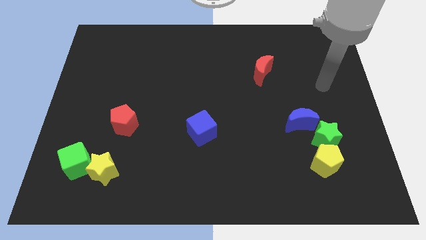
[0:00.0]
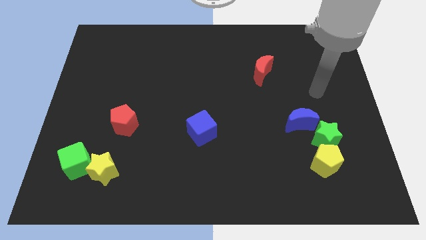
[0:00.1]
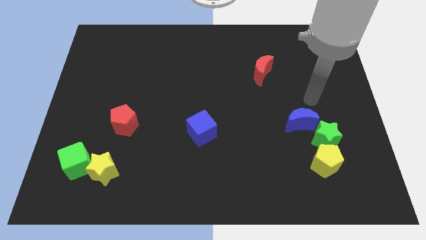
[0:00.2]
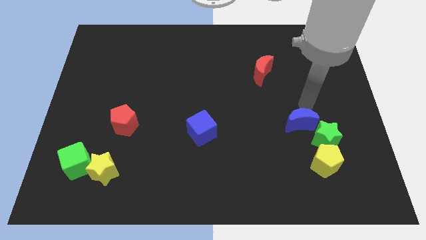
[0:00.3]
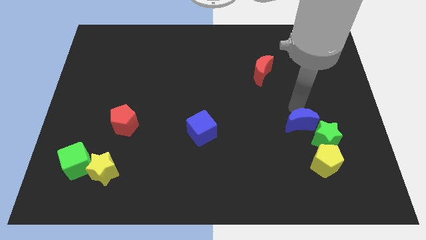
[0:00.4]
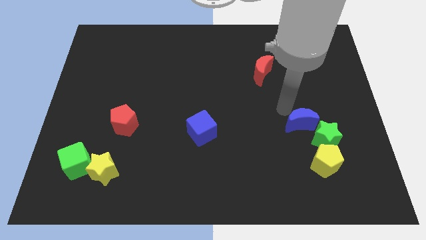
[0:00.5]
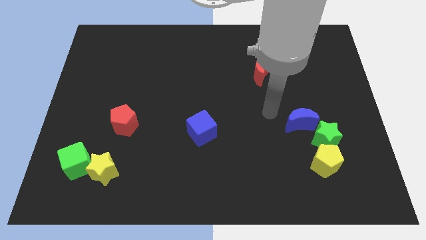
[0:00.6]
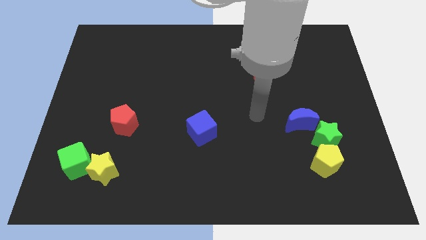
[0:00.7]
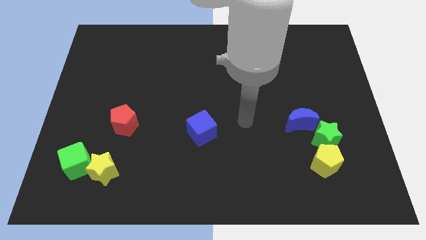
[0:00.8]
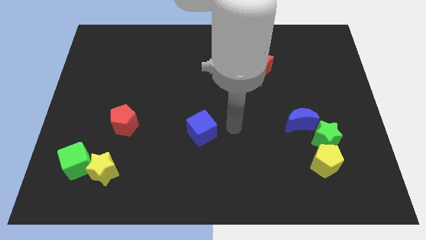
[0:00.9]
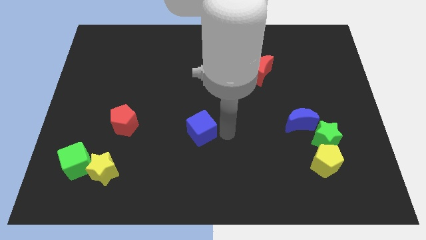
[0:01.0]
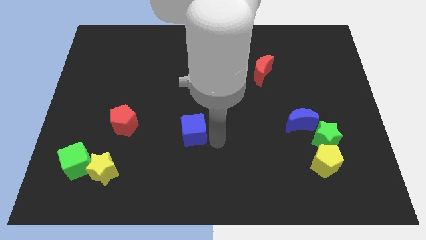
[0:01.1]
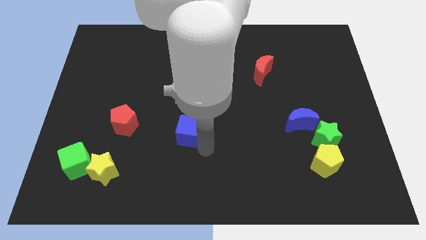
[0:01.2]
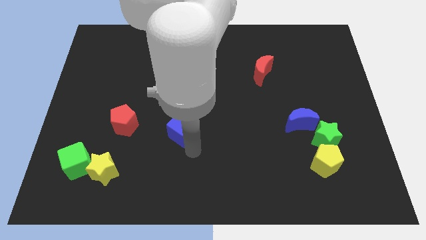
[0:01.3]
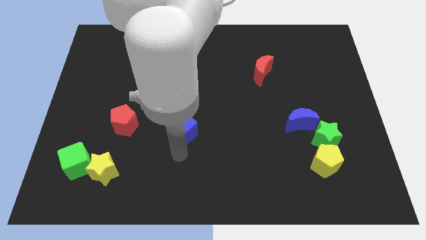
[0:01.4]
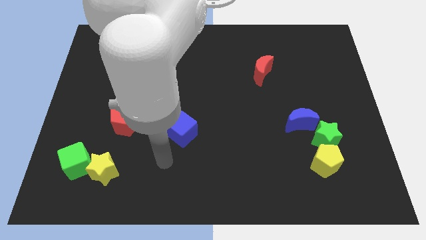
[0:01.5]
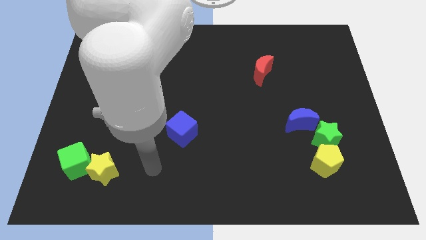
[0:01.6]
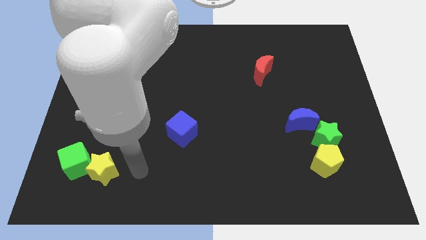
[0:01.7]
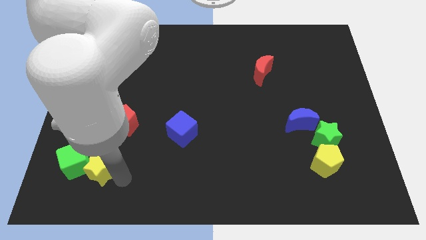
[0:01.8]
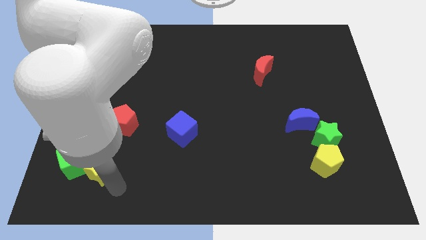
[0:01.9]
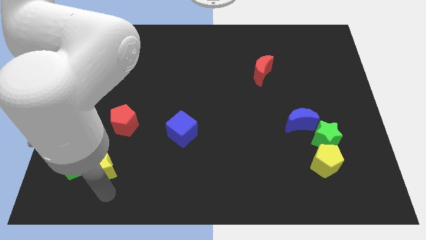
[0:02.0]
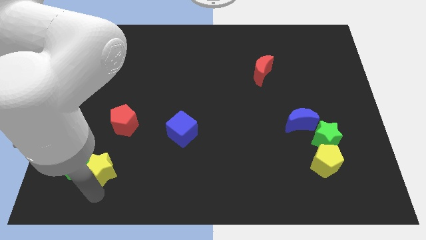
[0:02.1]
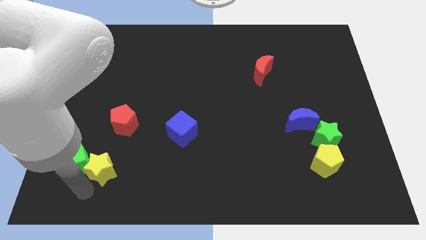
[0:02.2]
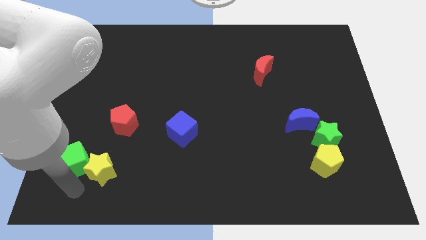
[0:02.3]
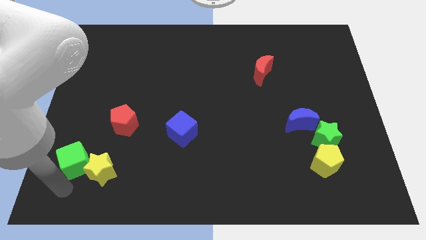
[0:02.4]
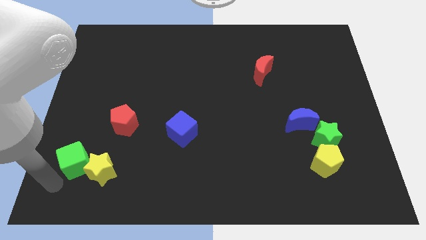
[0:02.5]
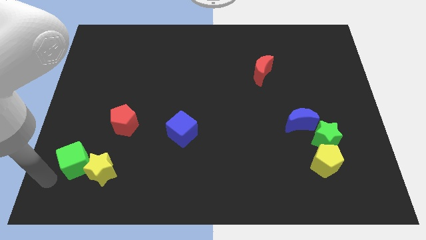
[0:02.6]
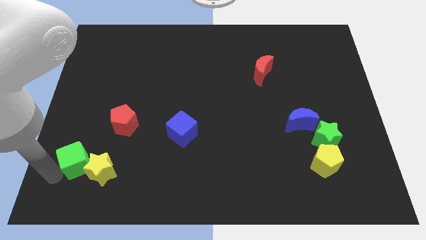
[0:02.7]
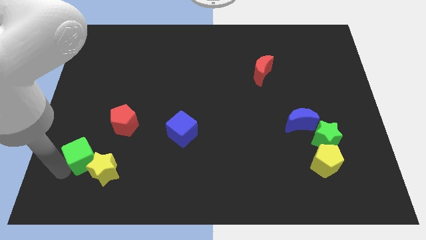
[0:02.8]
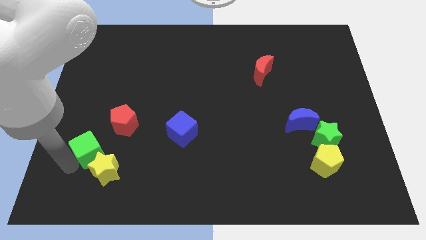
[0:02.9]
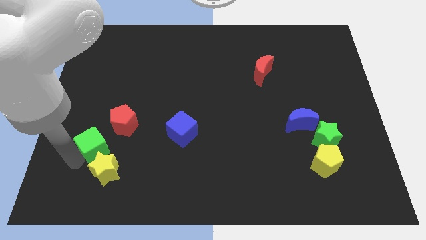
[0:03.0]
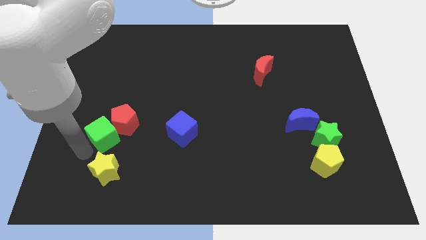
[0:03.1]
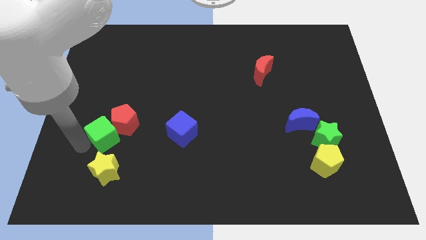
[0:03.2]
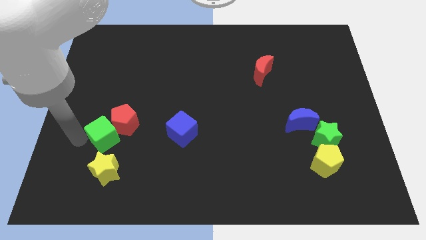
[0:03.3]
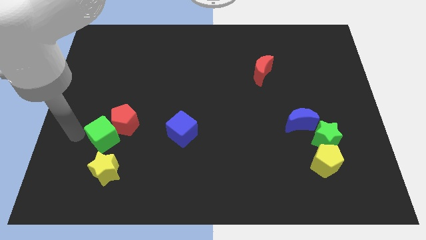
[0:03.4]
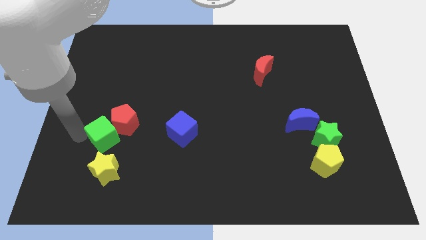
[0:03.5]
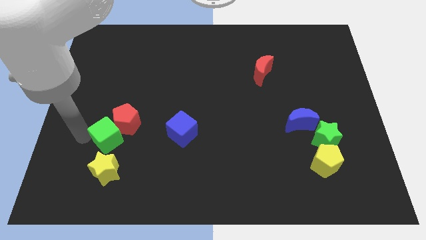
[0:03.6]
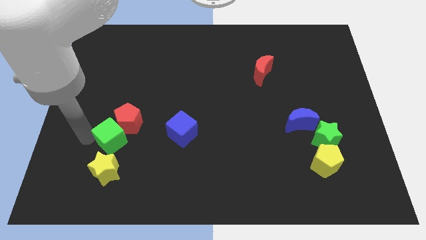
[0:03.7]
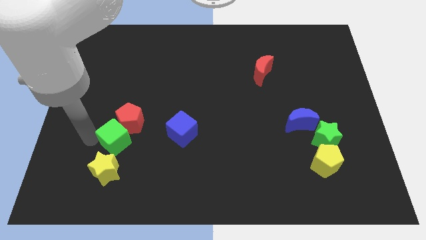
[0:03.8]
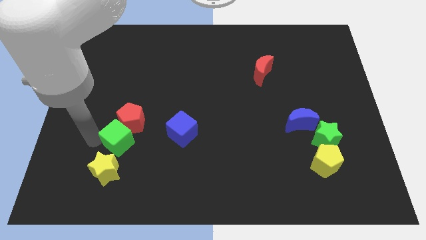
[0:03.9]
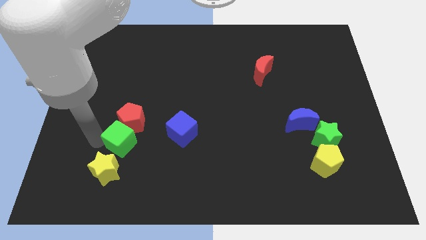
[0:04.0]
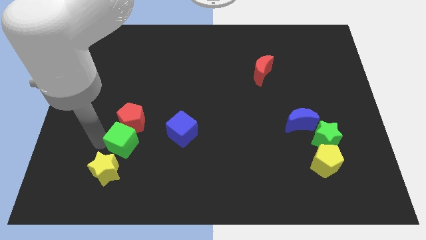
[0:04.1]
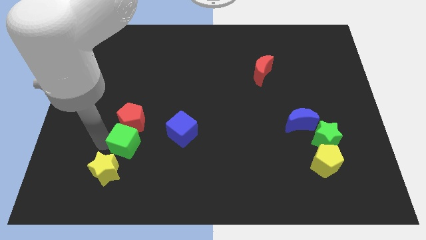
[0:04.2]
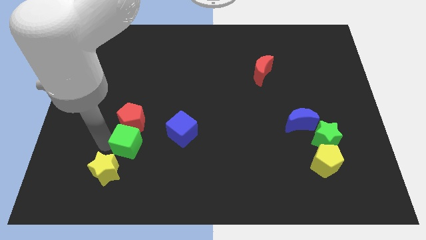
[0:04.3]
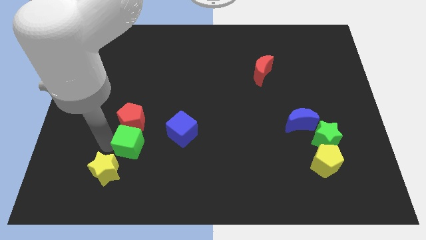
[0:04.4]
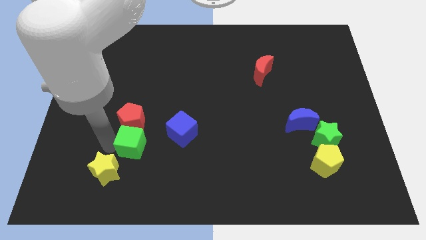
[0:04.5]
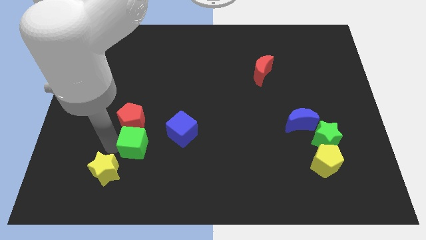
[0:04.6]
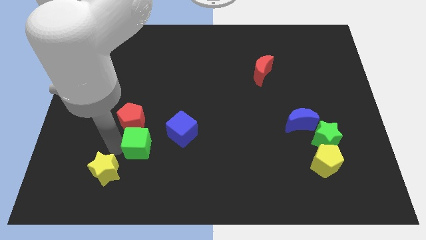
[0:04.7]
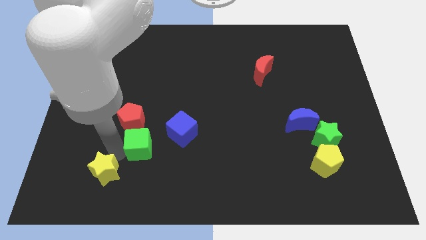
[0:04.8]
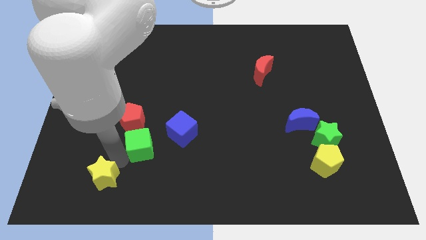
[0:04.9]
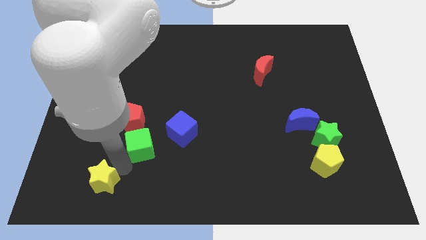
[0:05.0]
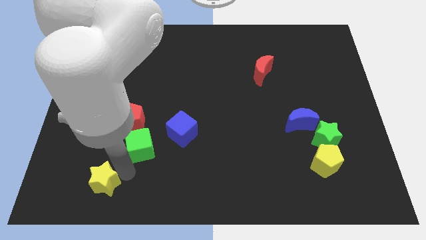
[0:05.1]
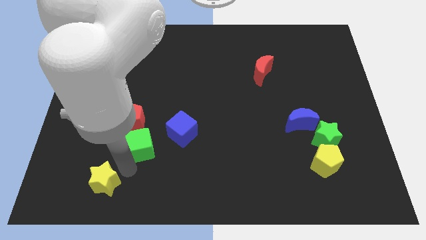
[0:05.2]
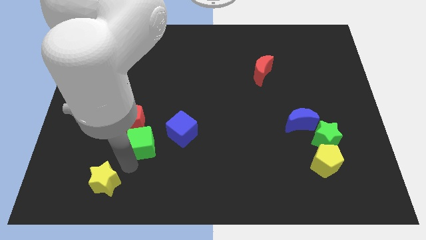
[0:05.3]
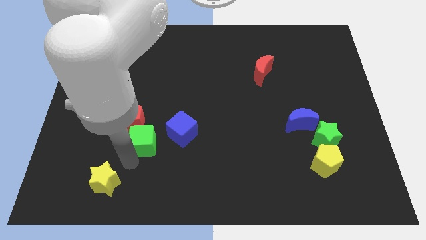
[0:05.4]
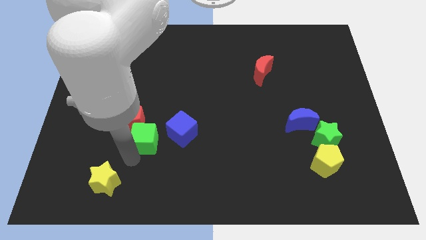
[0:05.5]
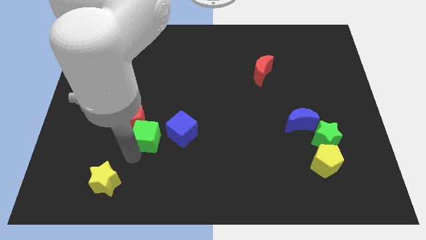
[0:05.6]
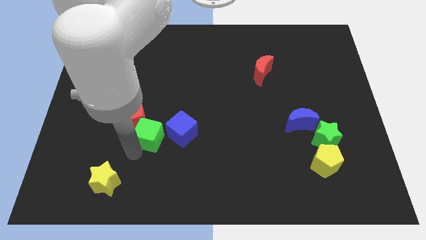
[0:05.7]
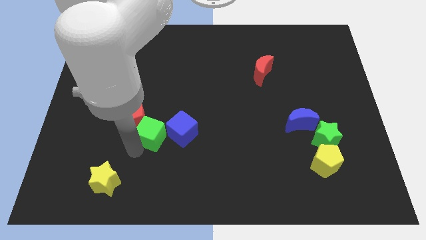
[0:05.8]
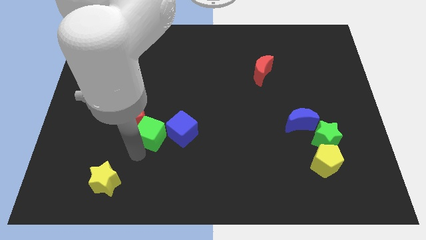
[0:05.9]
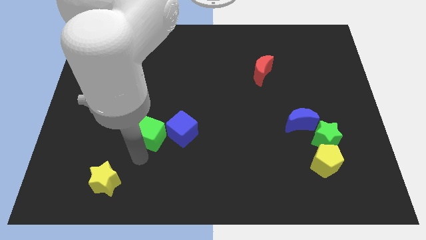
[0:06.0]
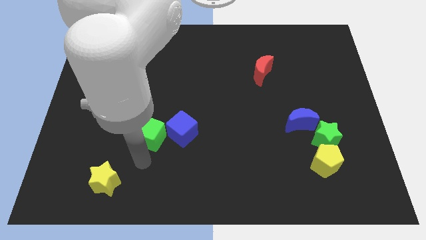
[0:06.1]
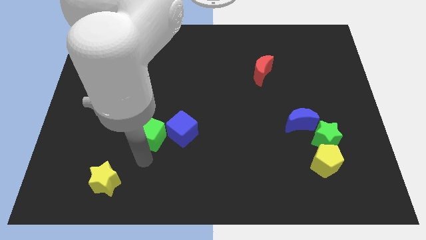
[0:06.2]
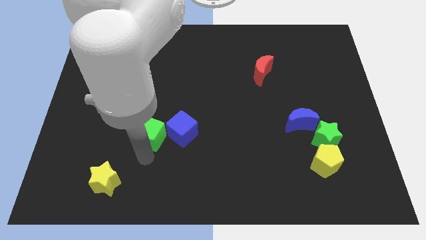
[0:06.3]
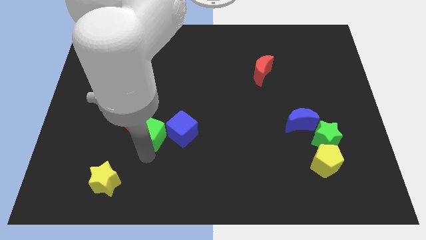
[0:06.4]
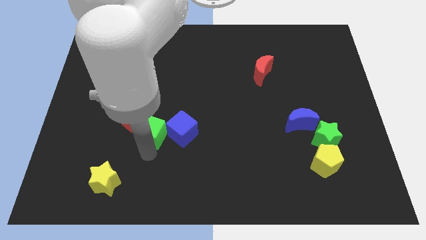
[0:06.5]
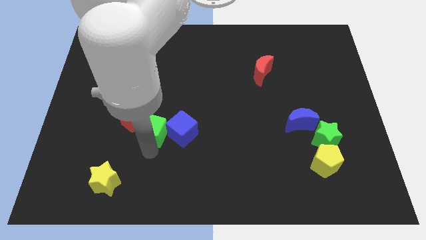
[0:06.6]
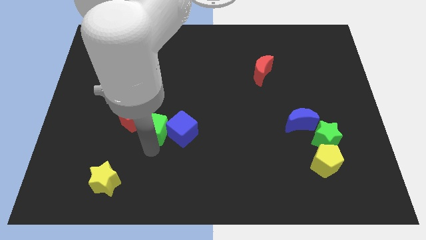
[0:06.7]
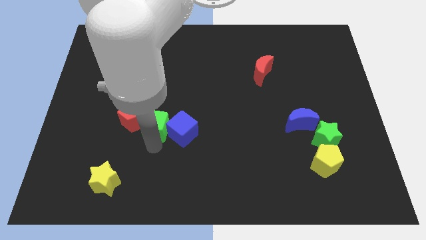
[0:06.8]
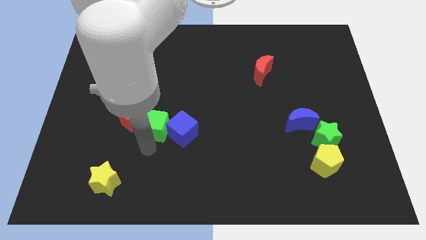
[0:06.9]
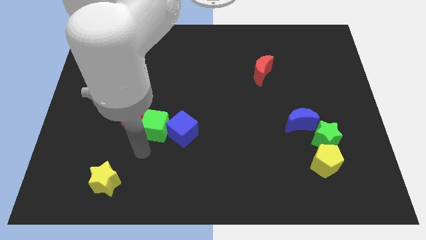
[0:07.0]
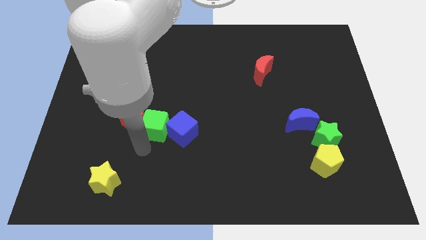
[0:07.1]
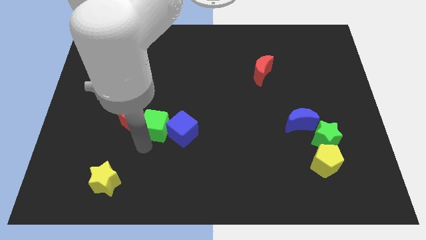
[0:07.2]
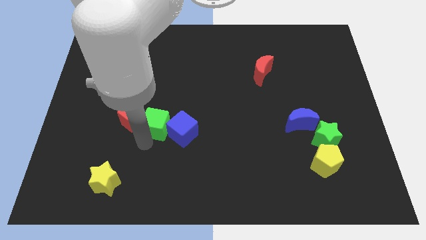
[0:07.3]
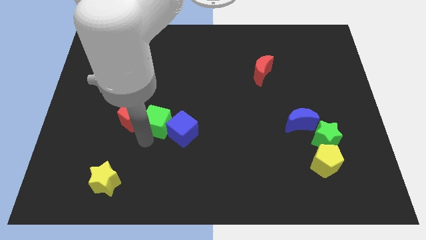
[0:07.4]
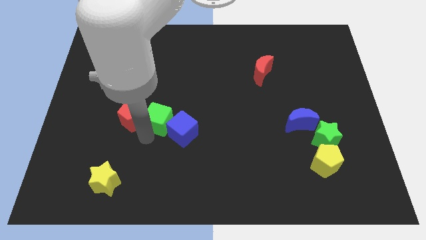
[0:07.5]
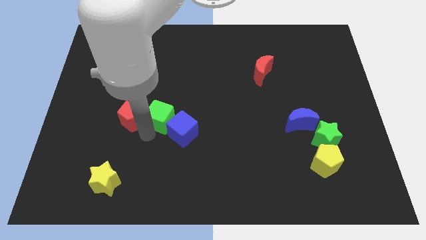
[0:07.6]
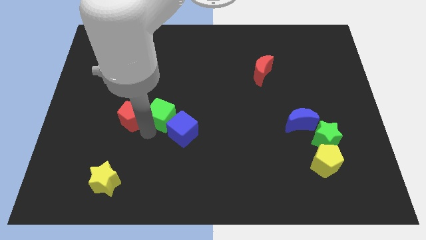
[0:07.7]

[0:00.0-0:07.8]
push the green cube upwards and right diagonally

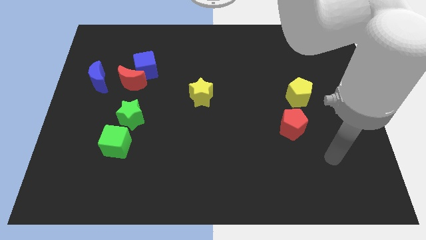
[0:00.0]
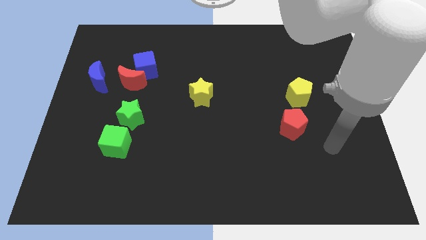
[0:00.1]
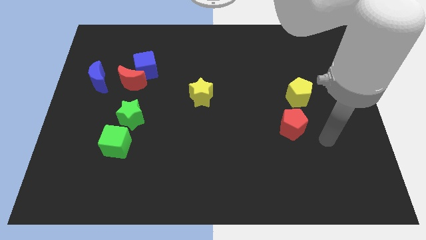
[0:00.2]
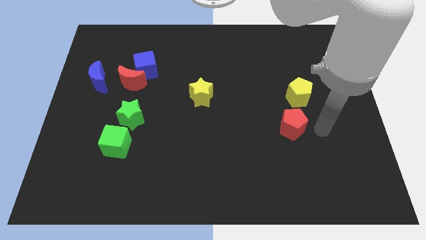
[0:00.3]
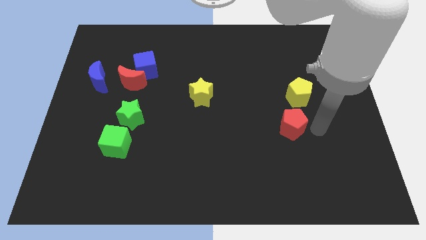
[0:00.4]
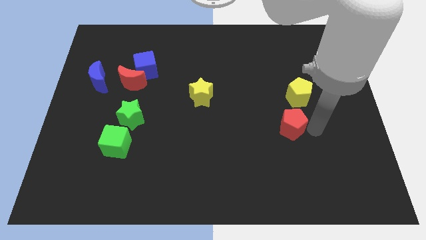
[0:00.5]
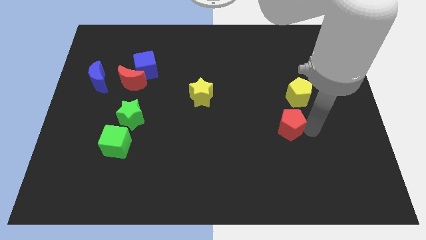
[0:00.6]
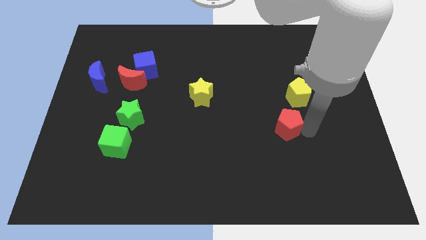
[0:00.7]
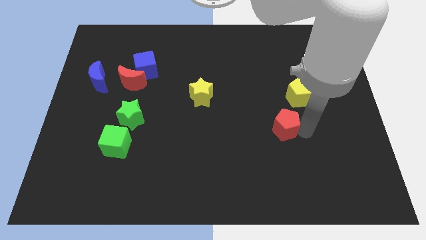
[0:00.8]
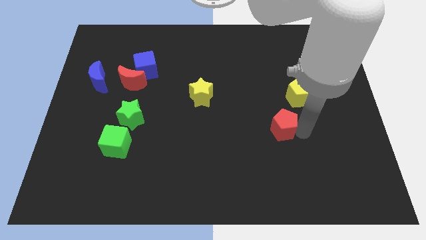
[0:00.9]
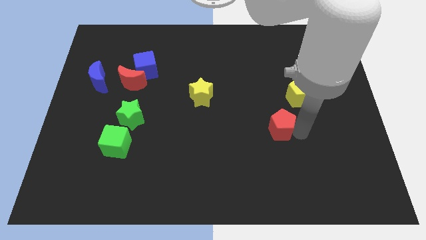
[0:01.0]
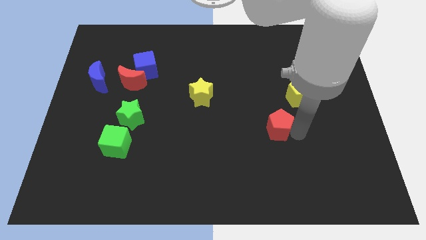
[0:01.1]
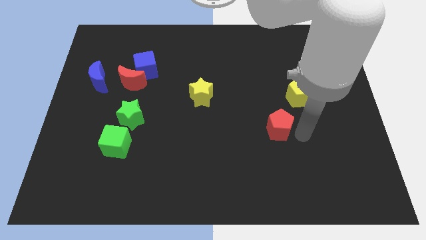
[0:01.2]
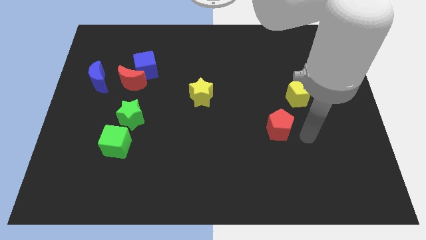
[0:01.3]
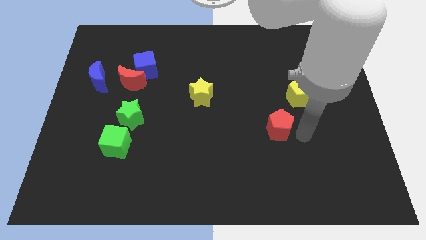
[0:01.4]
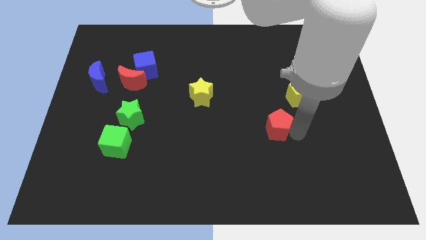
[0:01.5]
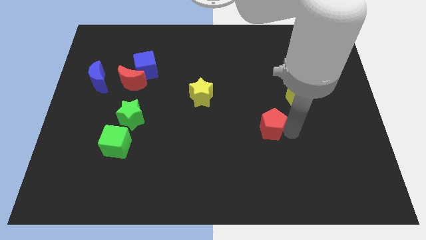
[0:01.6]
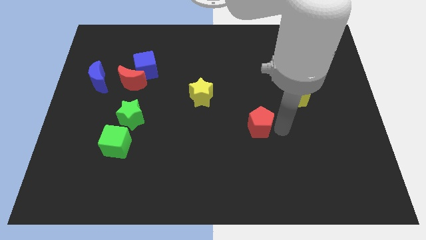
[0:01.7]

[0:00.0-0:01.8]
slightly slide the red pentagon left
